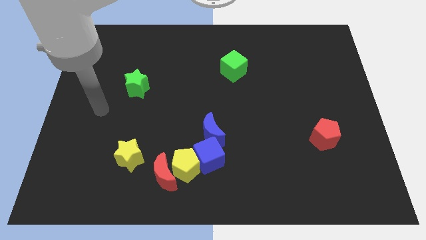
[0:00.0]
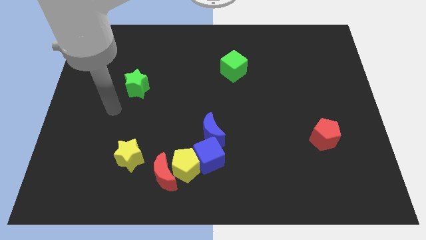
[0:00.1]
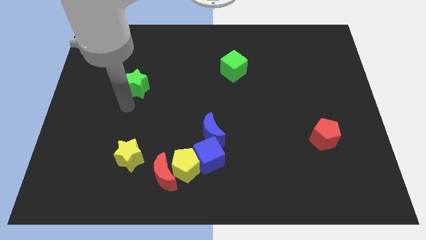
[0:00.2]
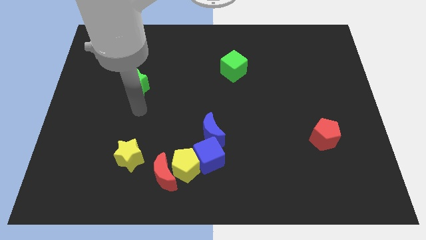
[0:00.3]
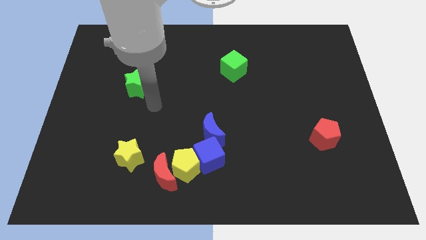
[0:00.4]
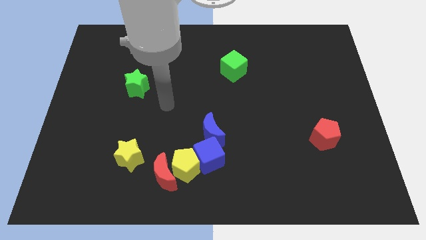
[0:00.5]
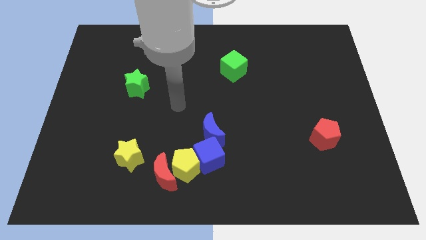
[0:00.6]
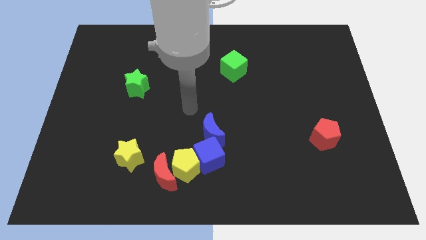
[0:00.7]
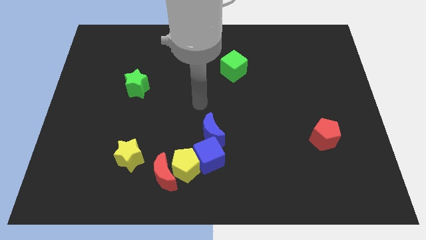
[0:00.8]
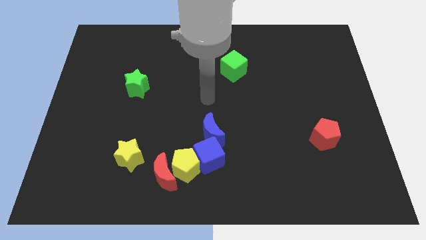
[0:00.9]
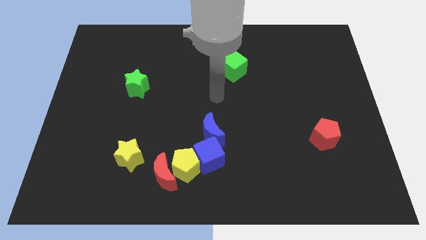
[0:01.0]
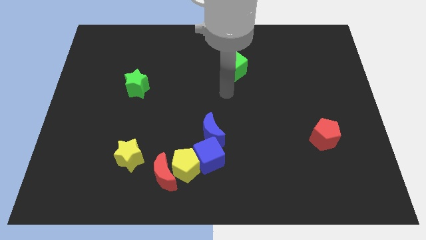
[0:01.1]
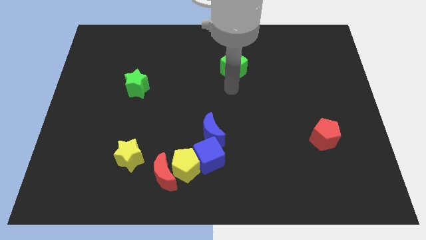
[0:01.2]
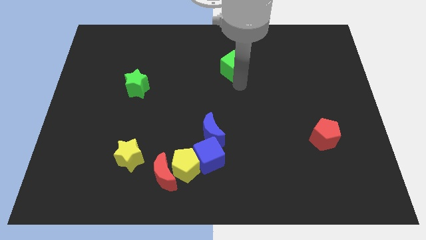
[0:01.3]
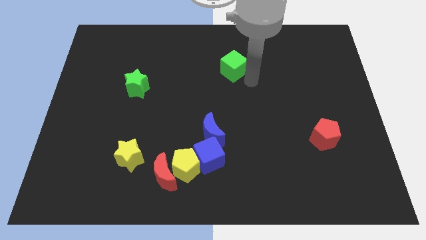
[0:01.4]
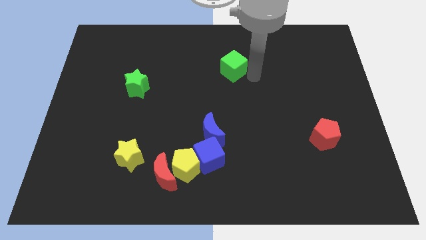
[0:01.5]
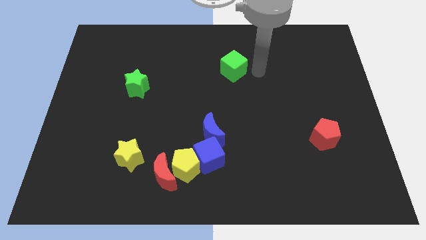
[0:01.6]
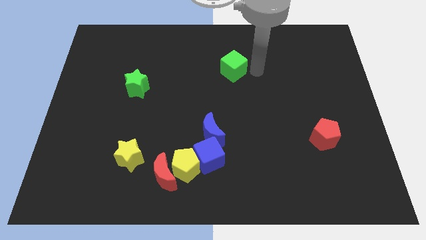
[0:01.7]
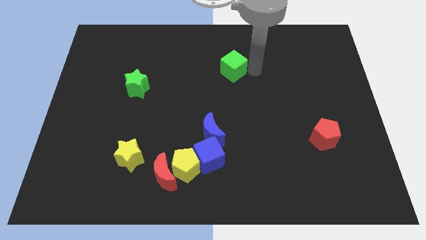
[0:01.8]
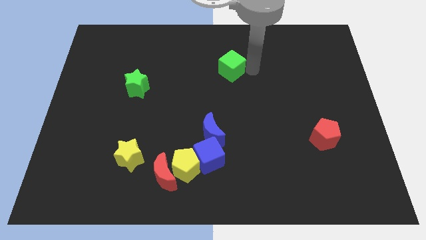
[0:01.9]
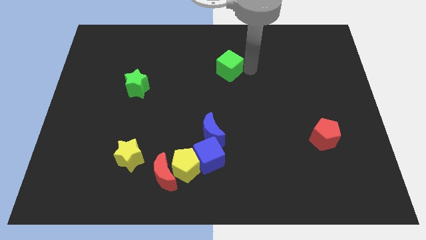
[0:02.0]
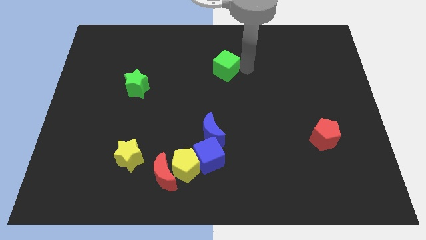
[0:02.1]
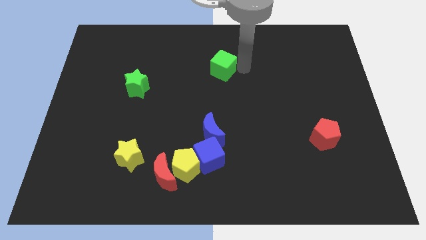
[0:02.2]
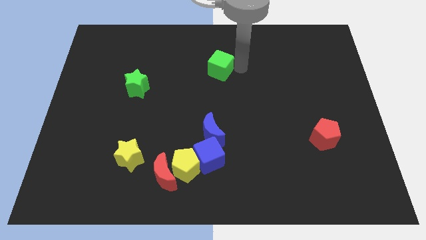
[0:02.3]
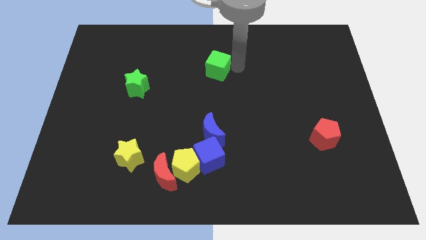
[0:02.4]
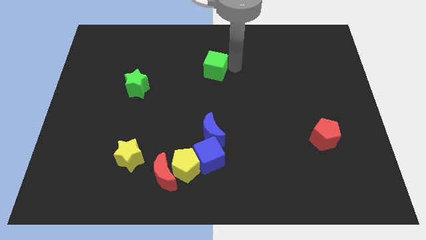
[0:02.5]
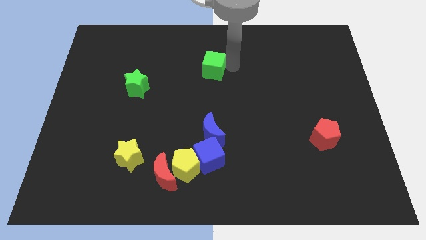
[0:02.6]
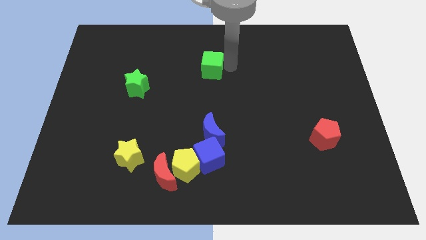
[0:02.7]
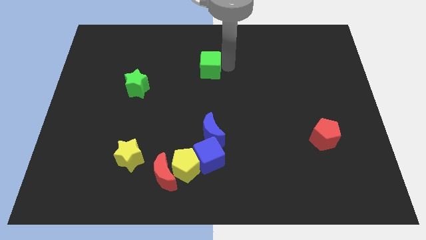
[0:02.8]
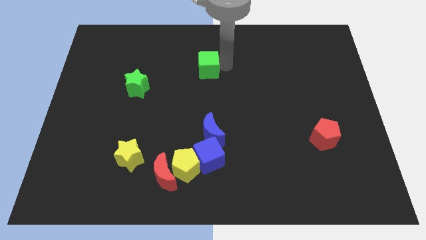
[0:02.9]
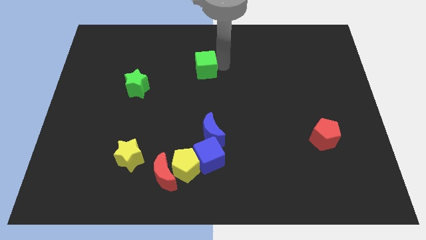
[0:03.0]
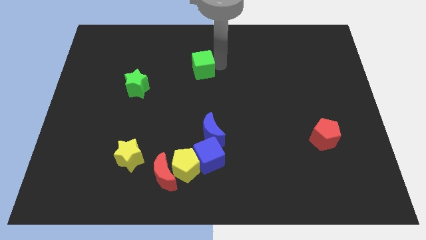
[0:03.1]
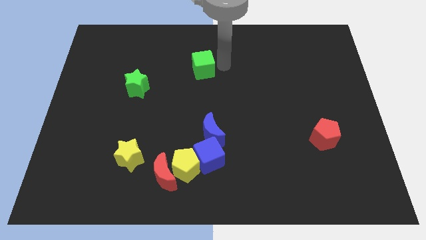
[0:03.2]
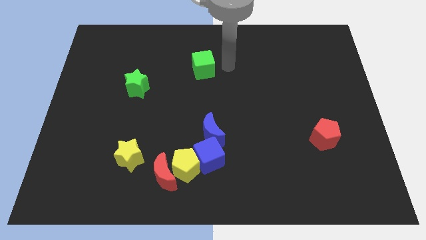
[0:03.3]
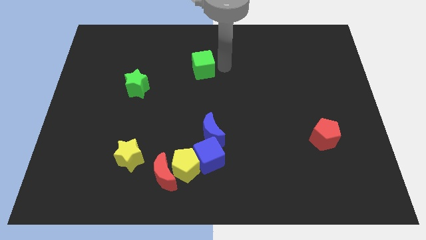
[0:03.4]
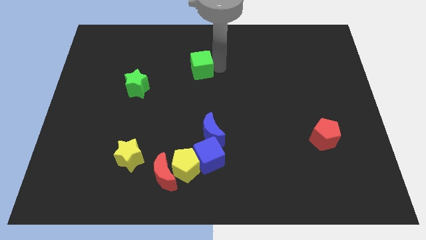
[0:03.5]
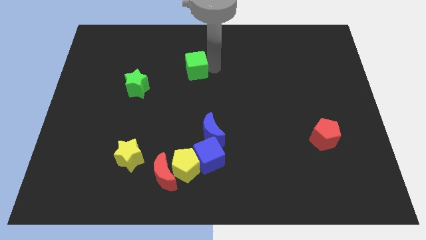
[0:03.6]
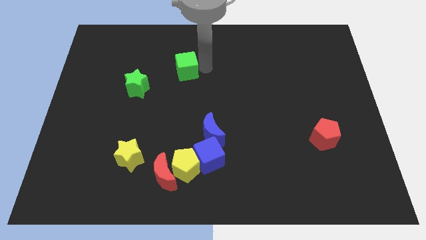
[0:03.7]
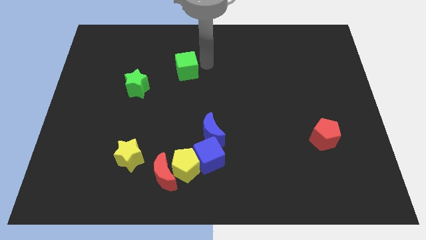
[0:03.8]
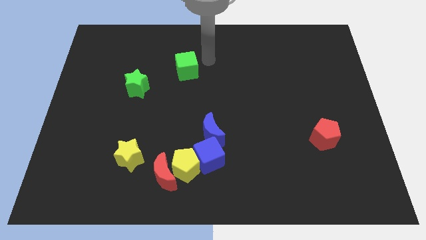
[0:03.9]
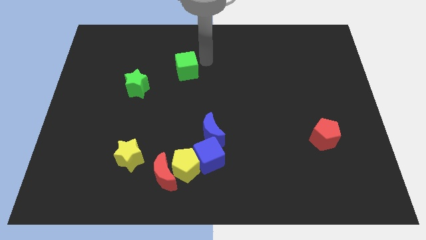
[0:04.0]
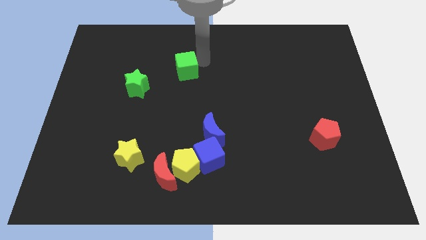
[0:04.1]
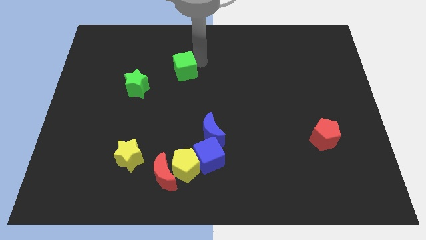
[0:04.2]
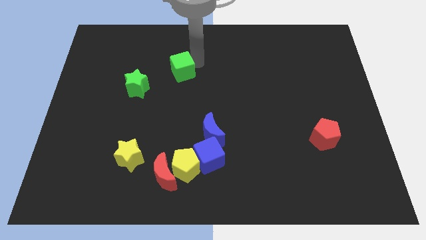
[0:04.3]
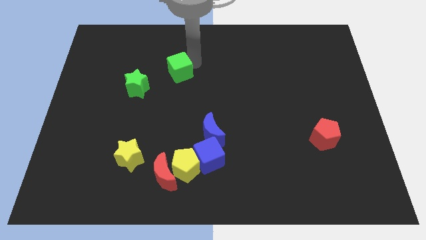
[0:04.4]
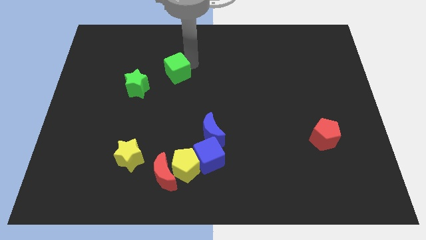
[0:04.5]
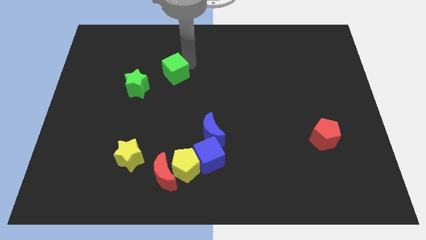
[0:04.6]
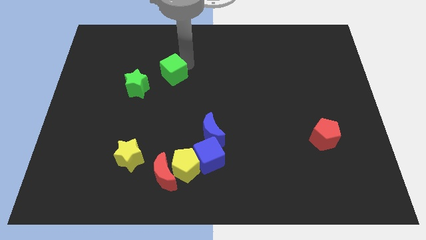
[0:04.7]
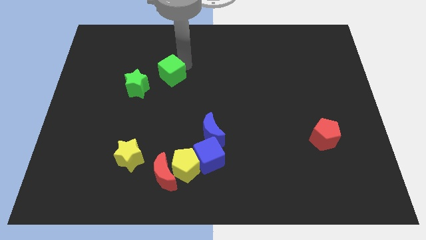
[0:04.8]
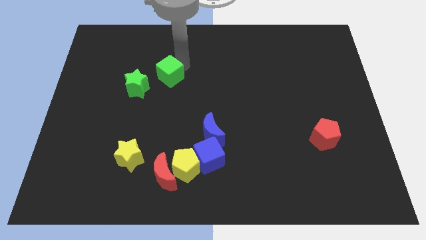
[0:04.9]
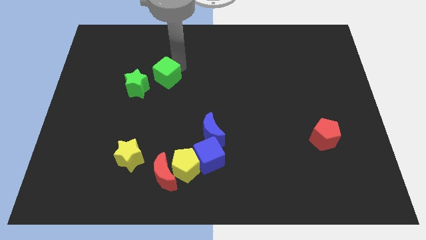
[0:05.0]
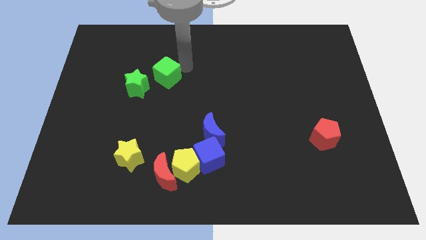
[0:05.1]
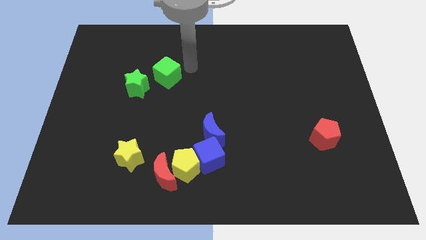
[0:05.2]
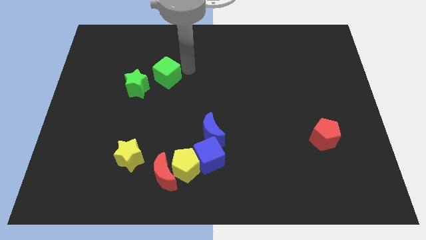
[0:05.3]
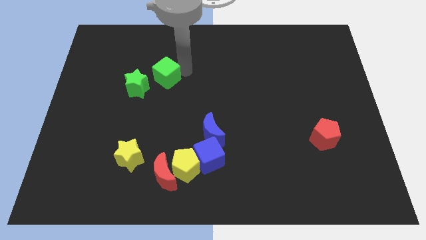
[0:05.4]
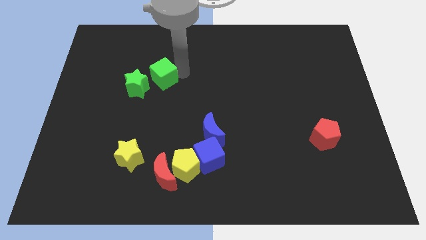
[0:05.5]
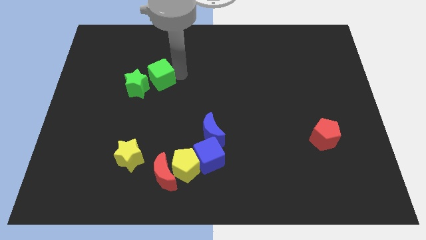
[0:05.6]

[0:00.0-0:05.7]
move the green cube next to the green star

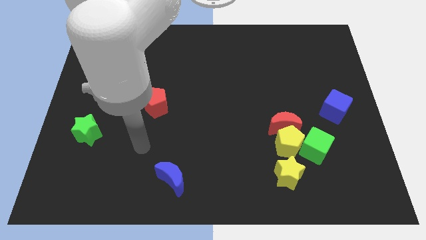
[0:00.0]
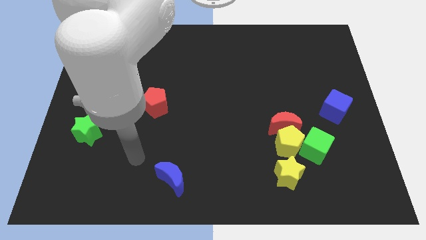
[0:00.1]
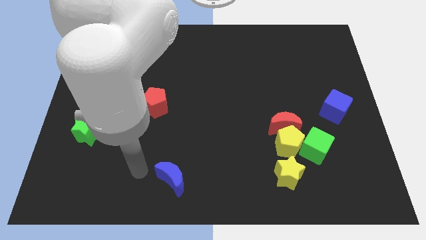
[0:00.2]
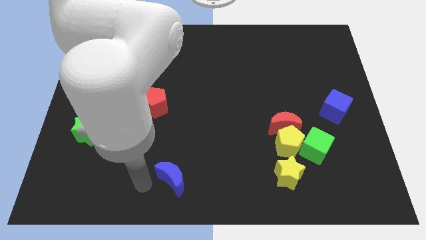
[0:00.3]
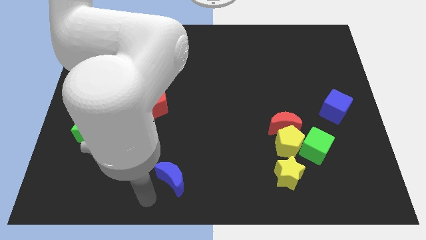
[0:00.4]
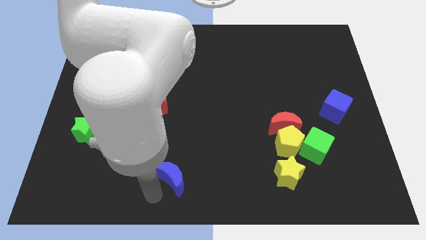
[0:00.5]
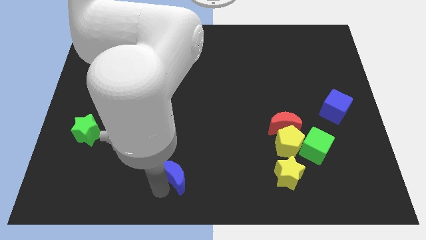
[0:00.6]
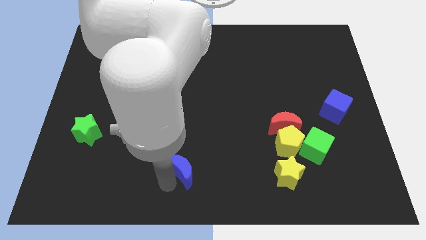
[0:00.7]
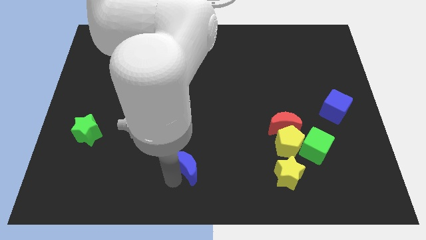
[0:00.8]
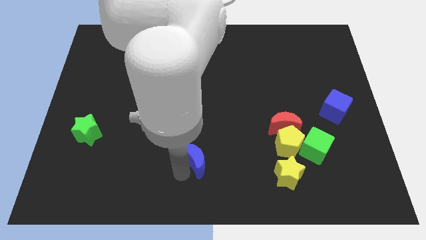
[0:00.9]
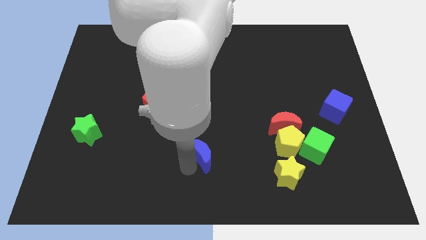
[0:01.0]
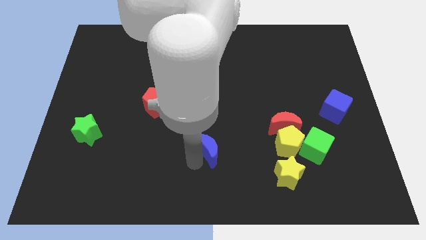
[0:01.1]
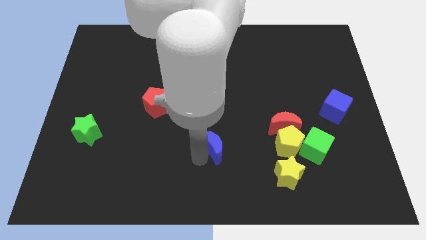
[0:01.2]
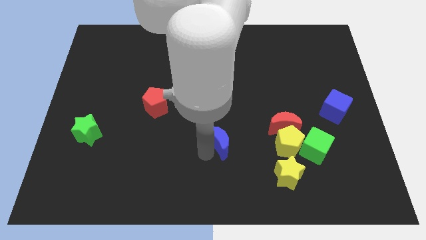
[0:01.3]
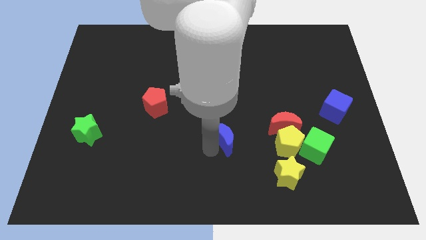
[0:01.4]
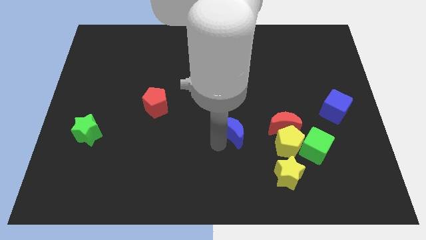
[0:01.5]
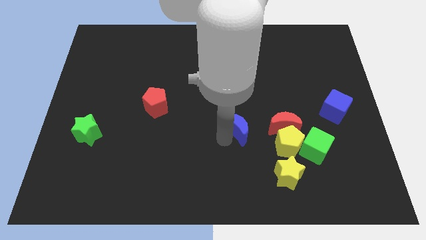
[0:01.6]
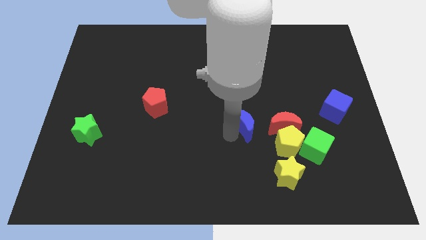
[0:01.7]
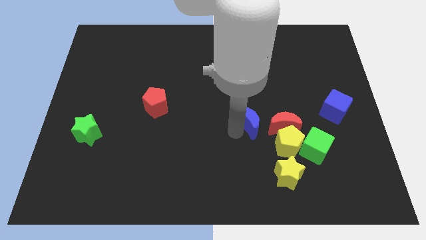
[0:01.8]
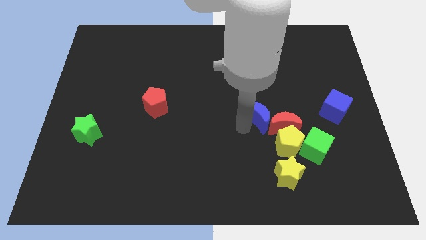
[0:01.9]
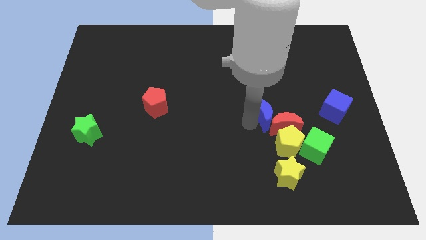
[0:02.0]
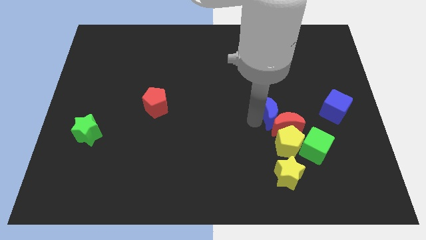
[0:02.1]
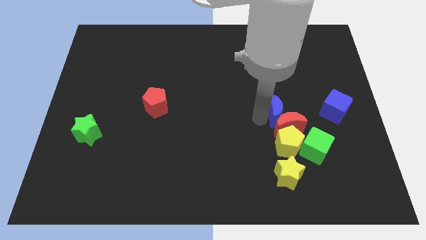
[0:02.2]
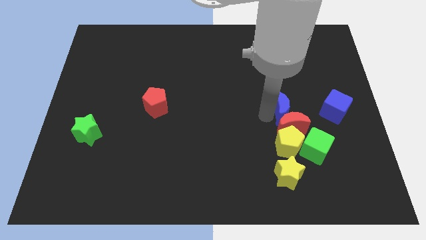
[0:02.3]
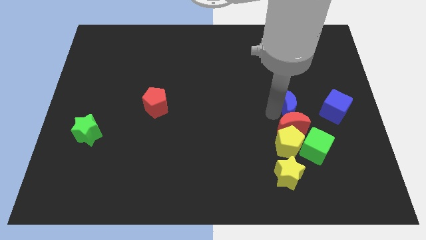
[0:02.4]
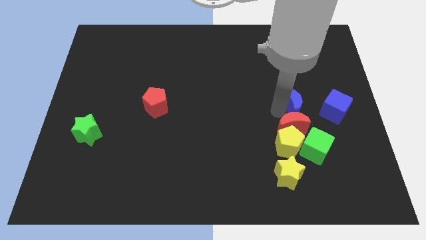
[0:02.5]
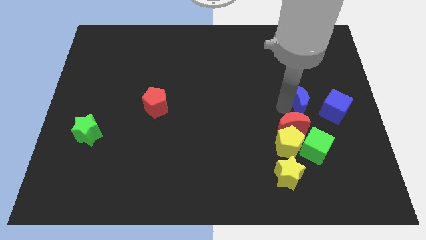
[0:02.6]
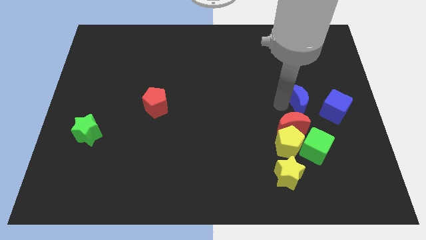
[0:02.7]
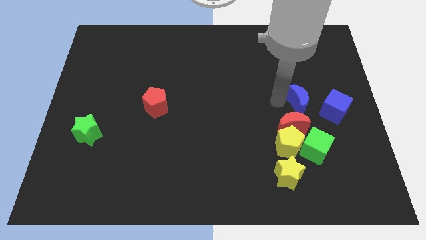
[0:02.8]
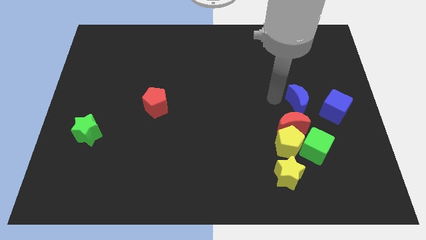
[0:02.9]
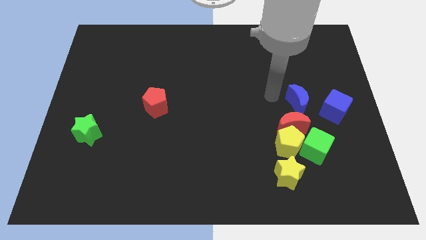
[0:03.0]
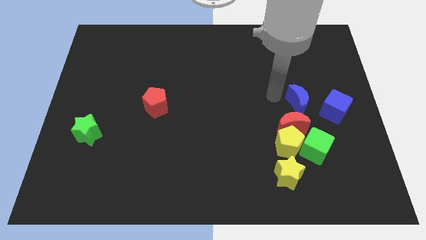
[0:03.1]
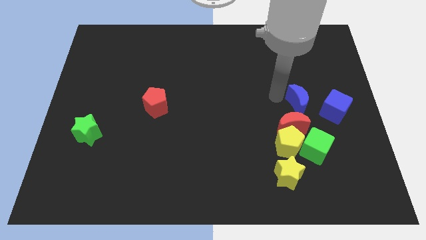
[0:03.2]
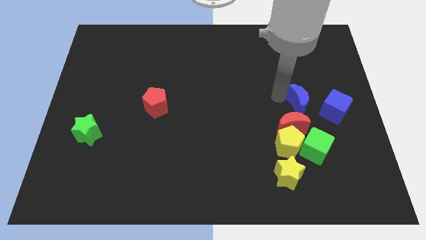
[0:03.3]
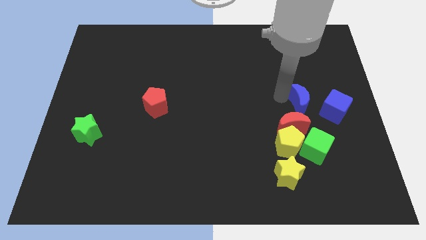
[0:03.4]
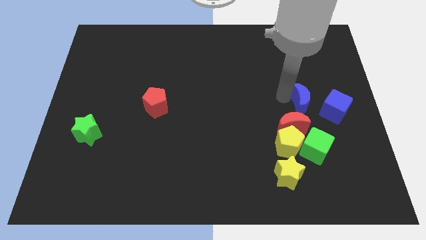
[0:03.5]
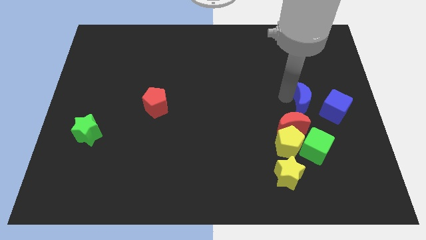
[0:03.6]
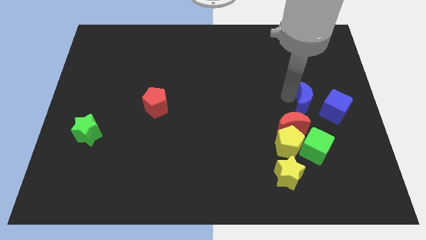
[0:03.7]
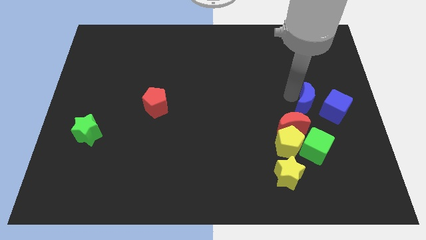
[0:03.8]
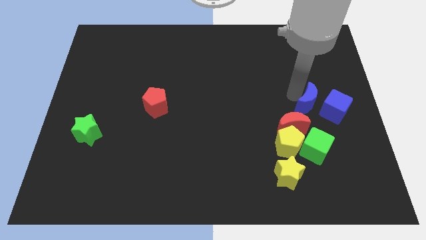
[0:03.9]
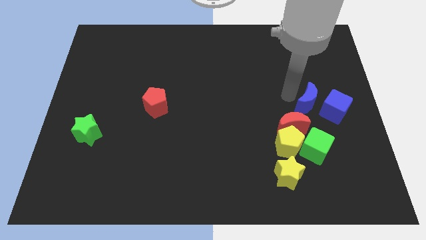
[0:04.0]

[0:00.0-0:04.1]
move the blue moon to the blue cube
